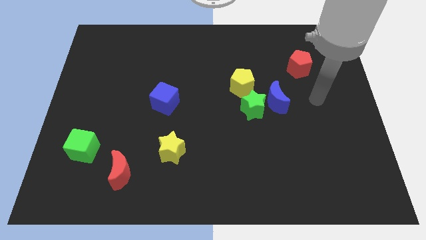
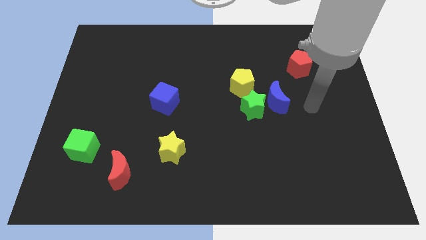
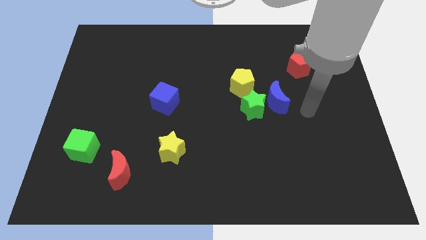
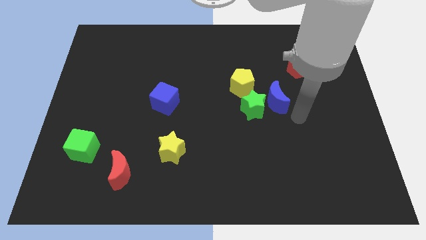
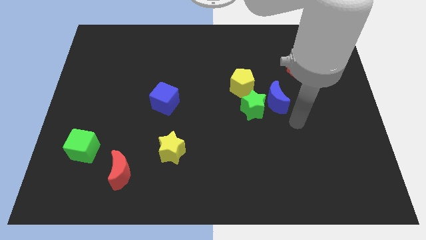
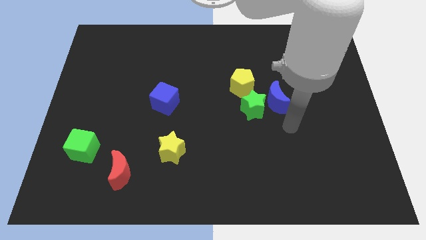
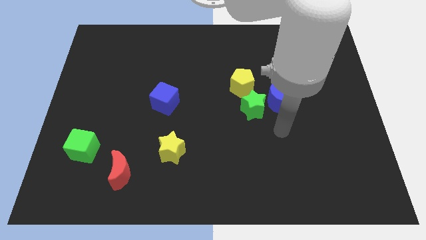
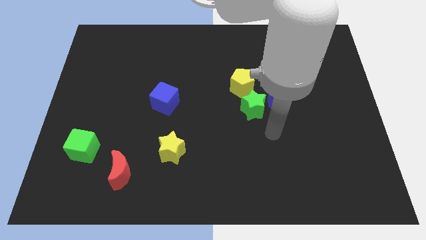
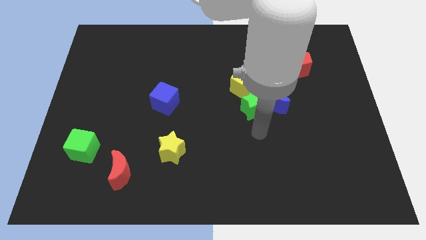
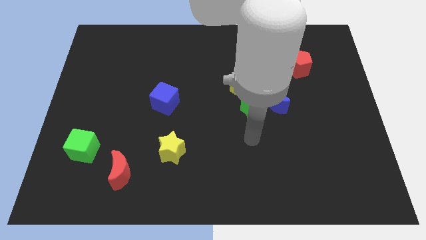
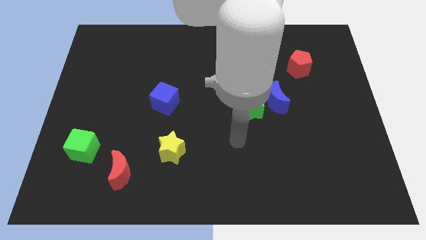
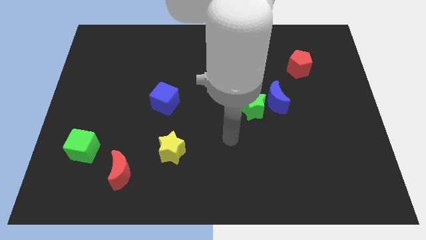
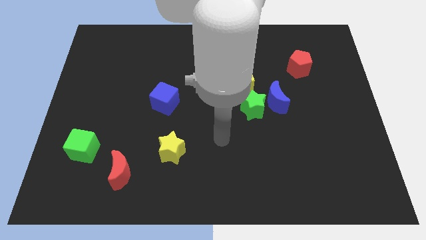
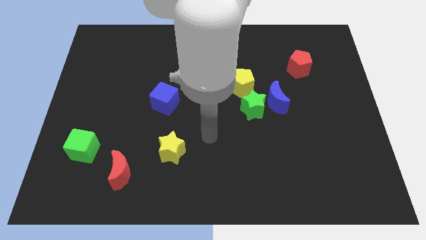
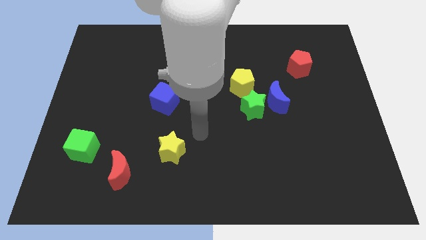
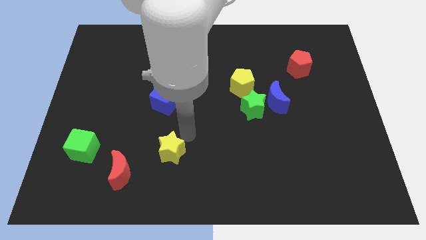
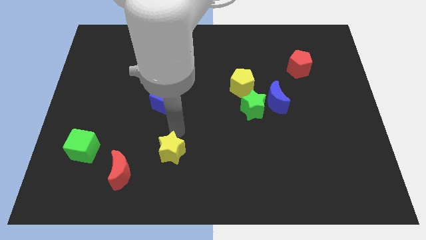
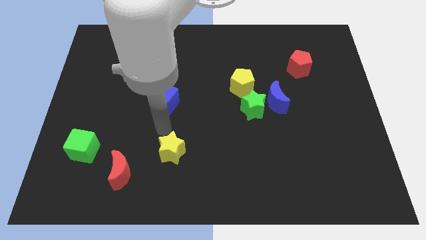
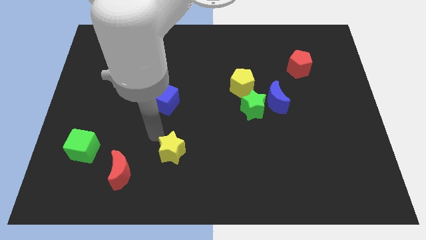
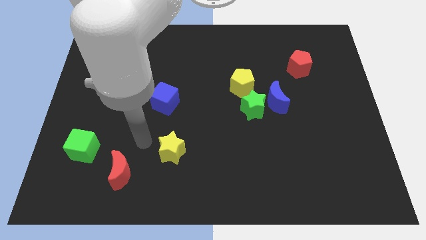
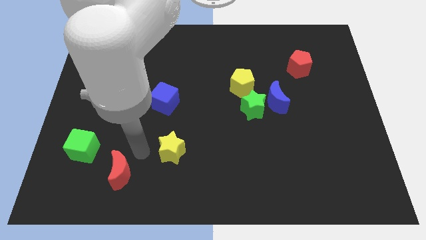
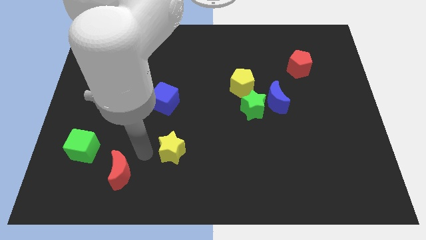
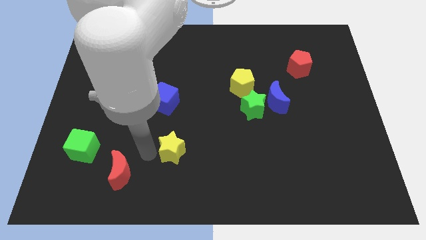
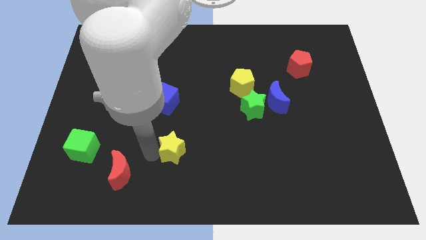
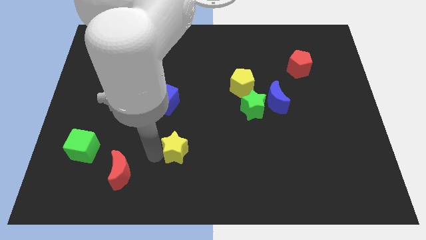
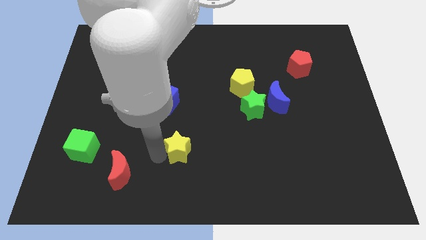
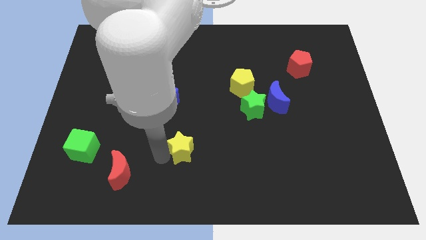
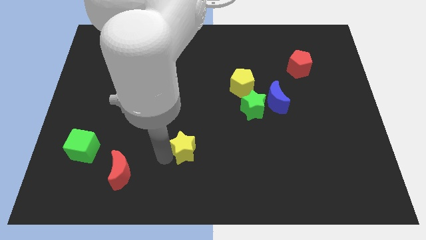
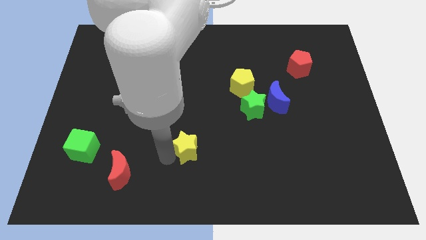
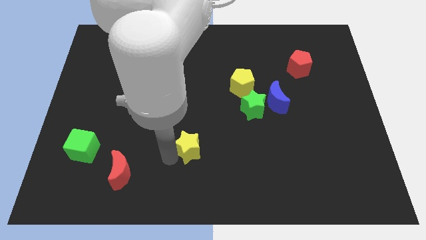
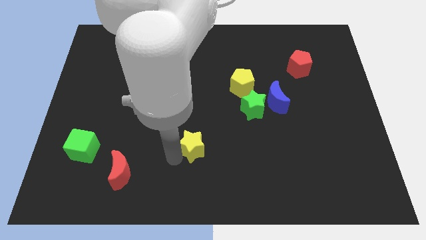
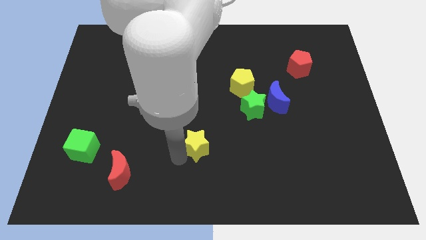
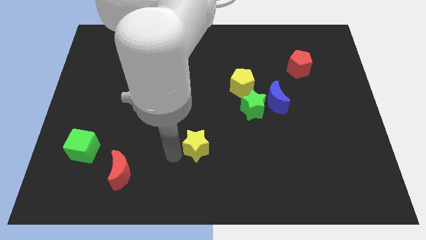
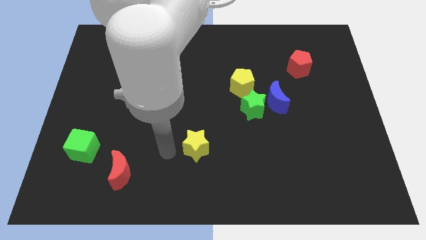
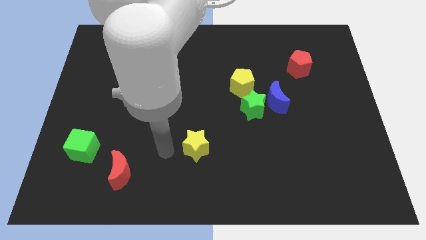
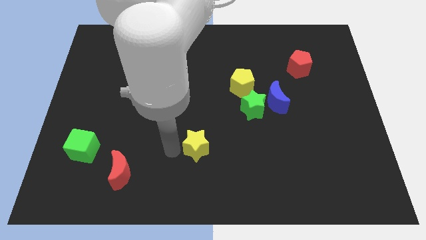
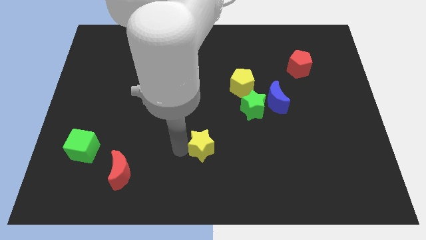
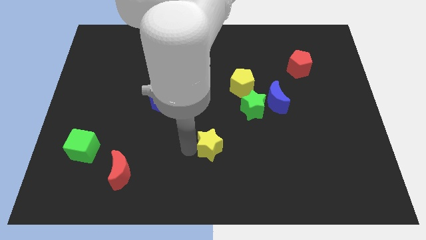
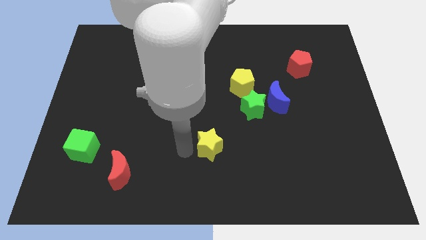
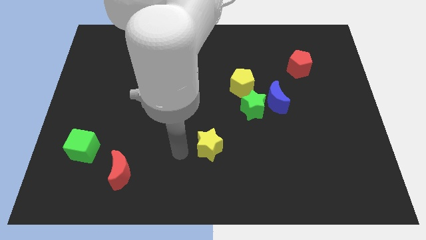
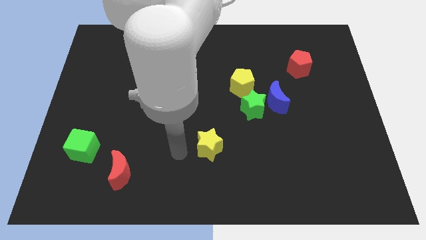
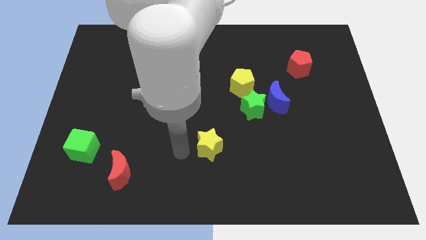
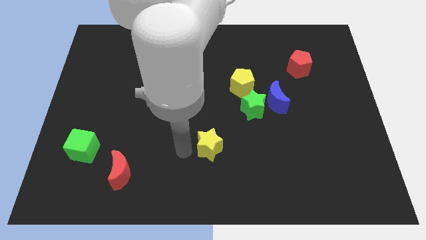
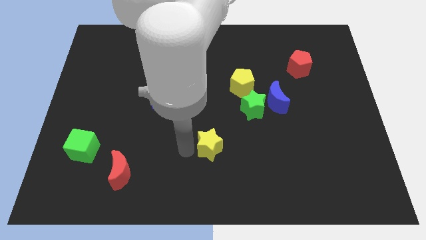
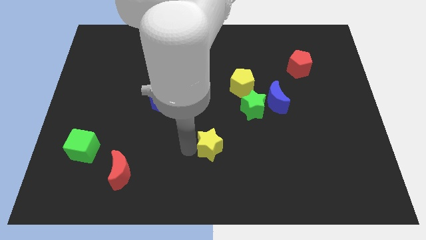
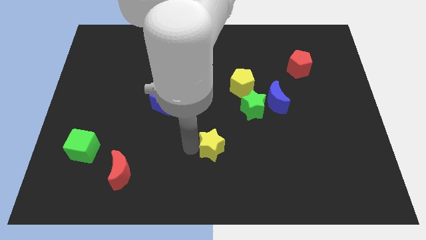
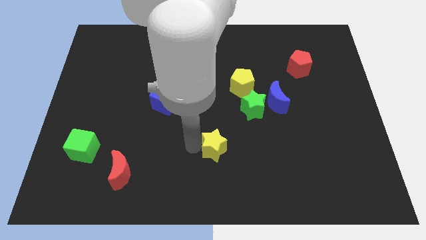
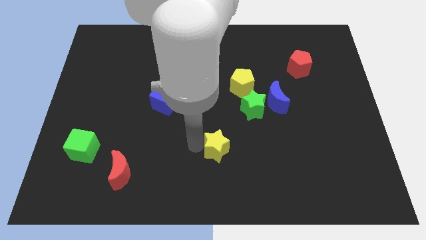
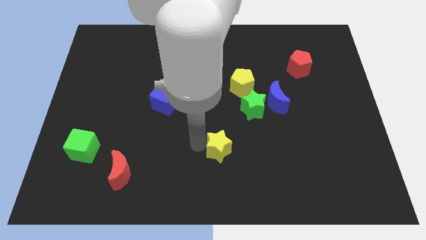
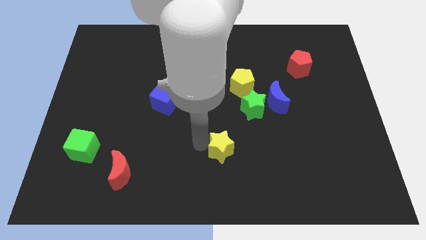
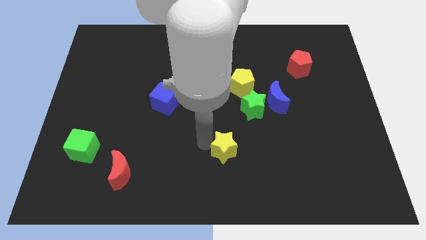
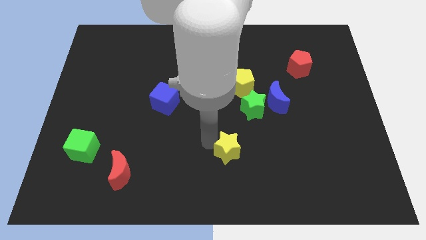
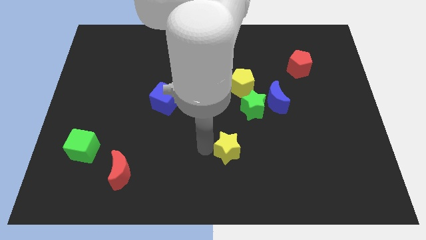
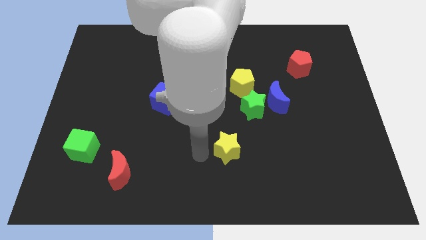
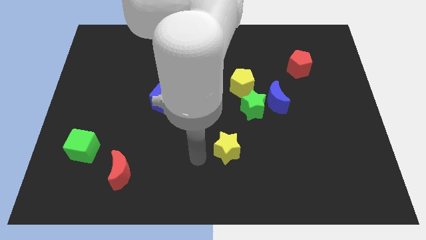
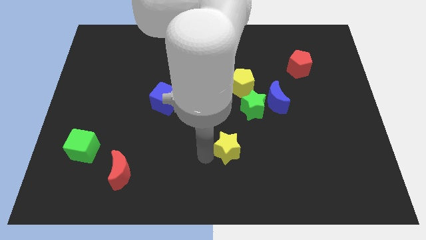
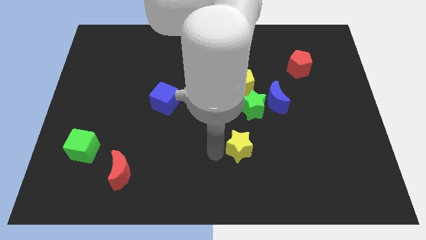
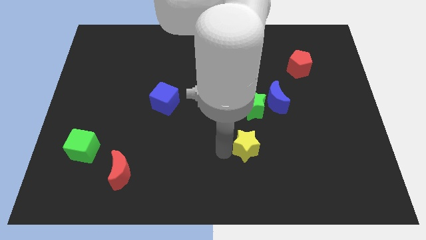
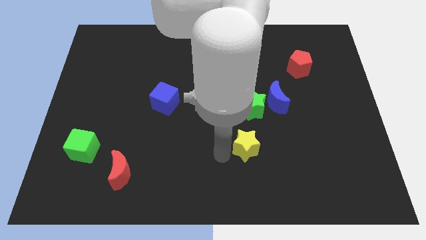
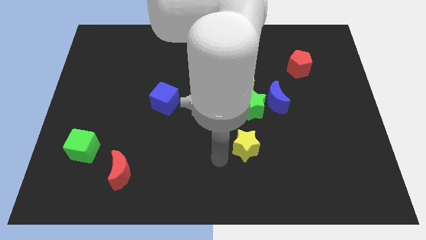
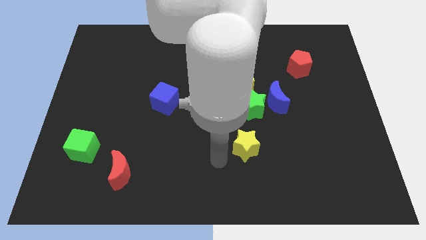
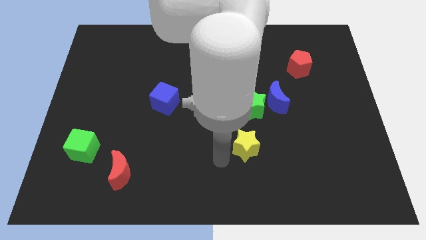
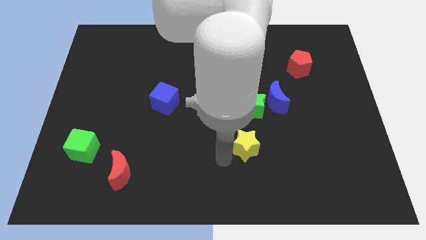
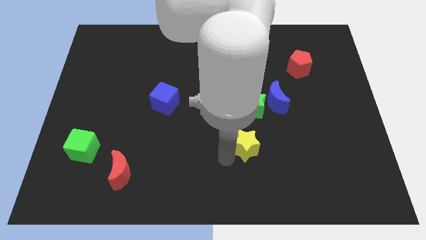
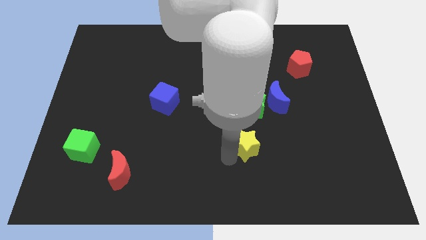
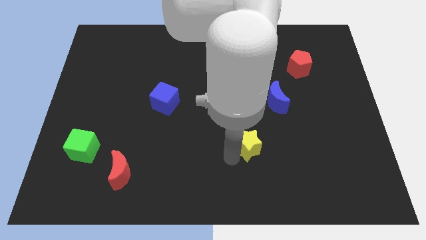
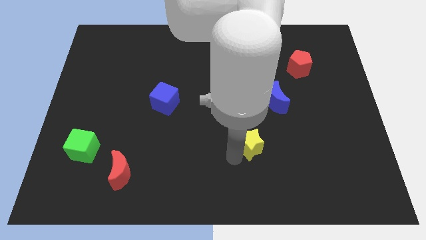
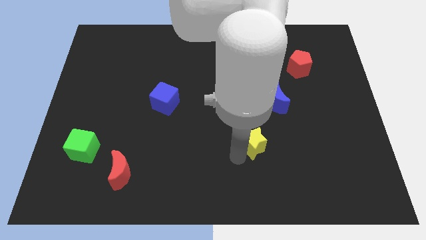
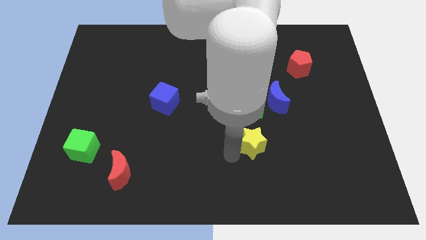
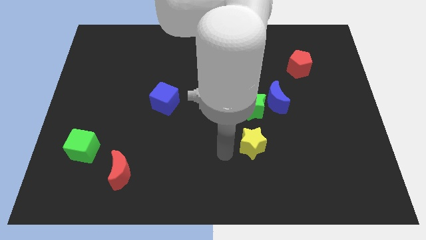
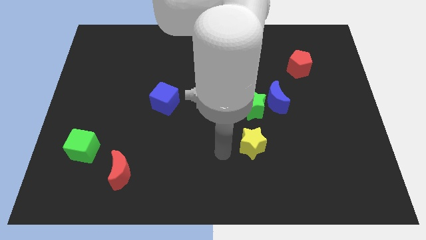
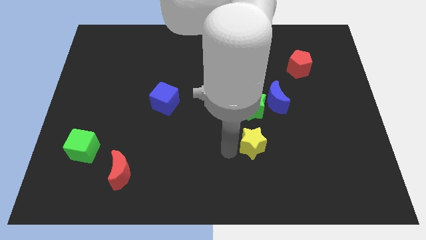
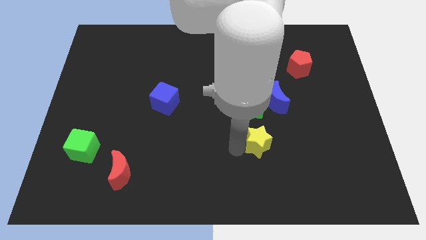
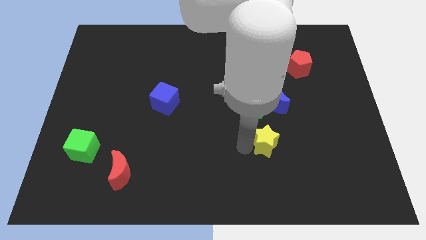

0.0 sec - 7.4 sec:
put the yellow star below the blue moon

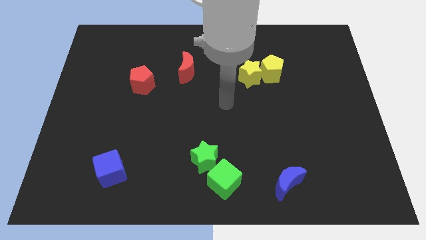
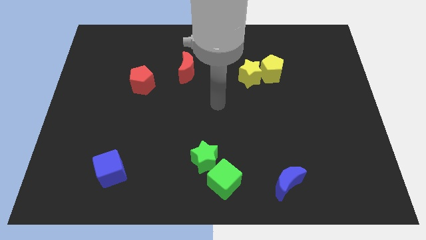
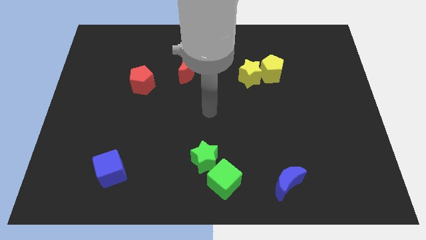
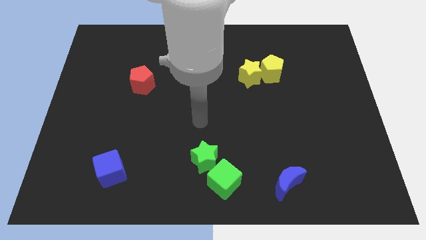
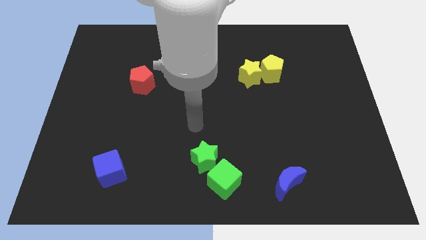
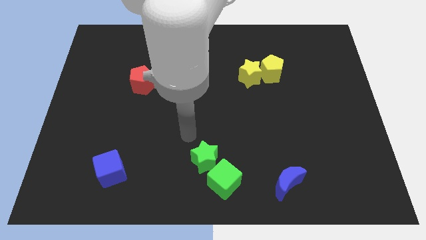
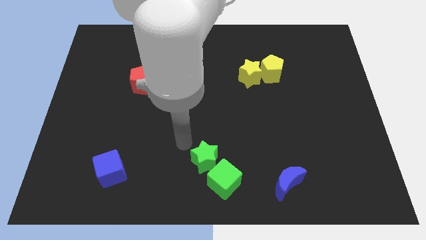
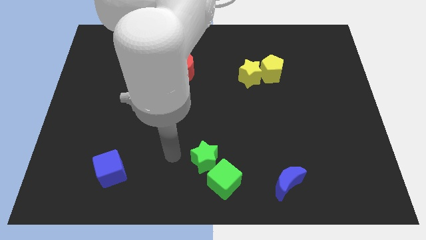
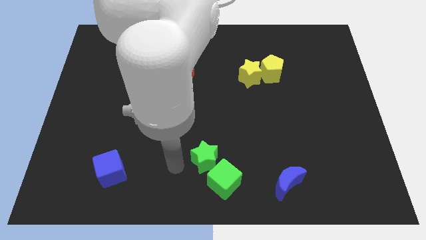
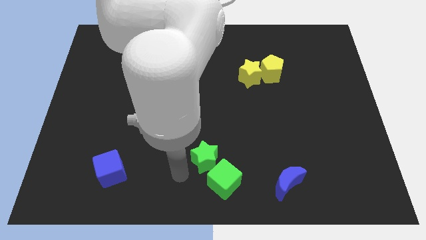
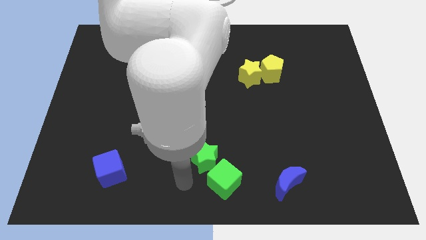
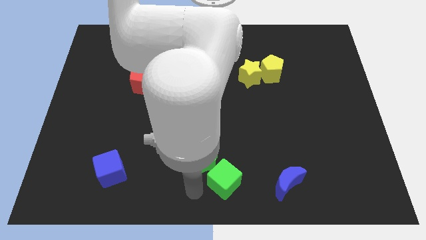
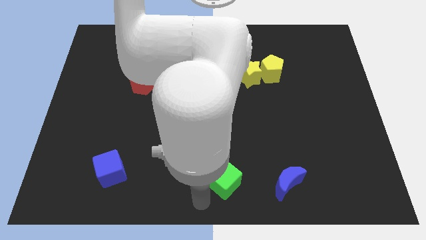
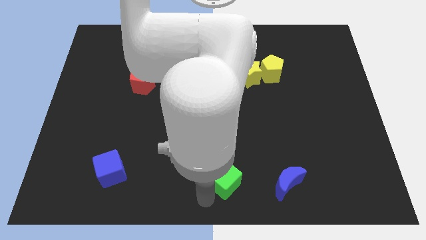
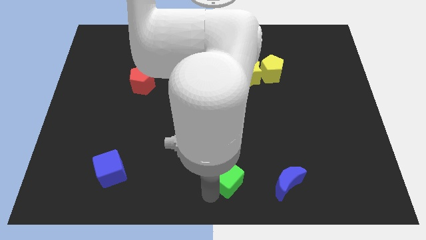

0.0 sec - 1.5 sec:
push the green cube just right of the green star
